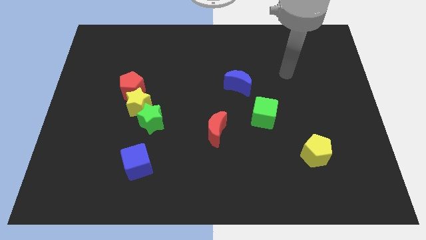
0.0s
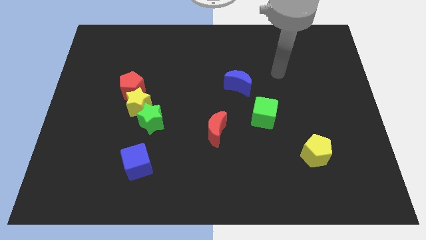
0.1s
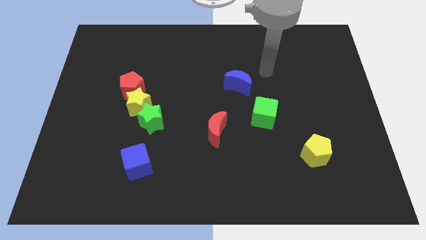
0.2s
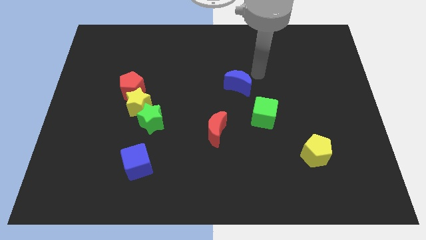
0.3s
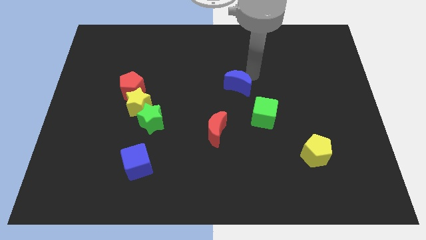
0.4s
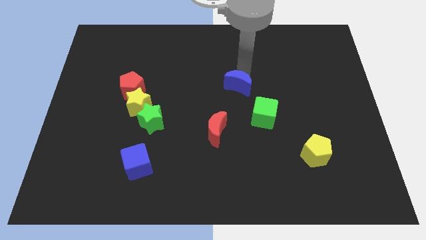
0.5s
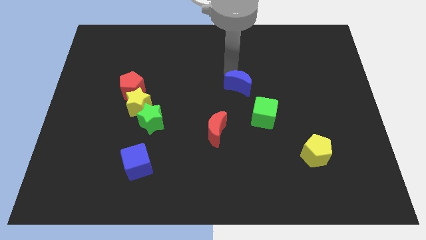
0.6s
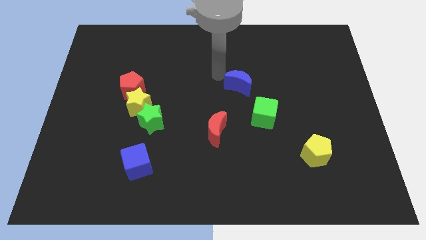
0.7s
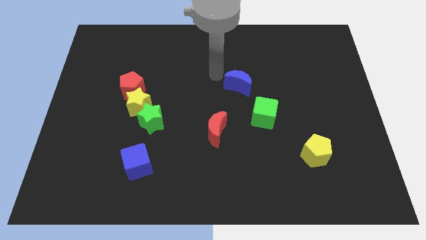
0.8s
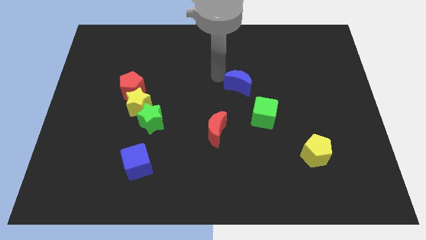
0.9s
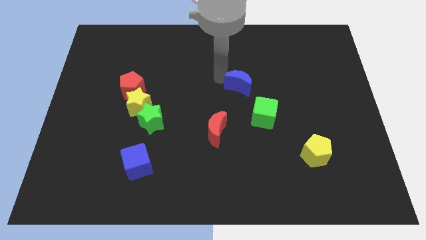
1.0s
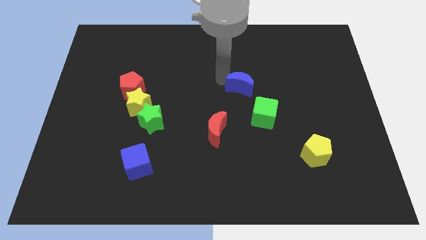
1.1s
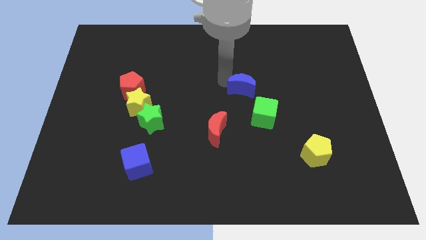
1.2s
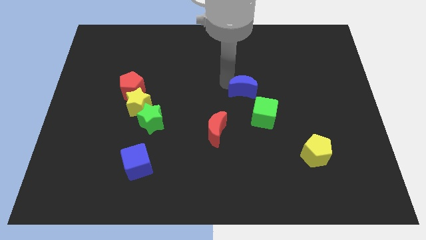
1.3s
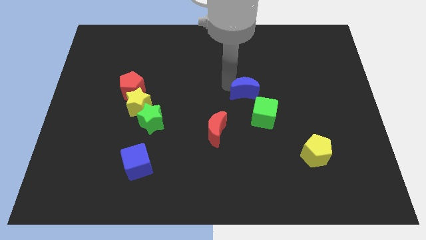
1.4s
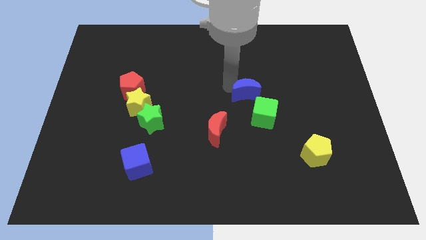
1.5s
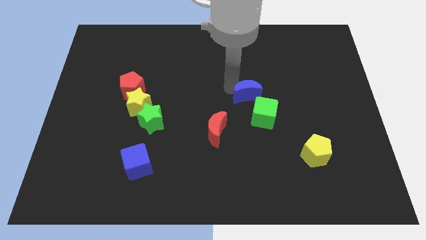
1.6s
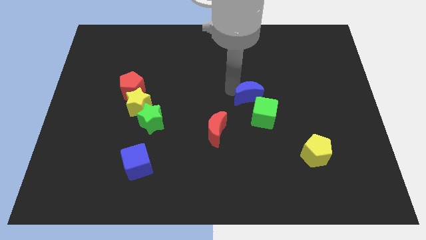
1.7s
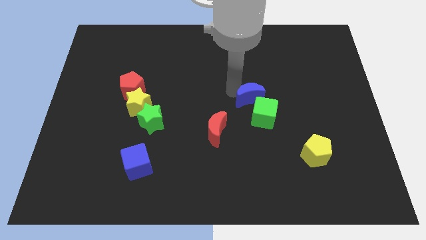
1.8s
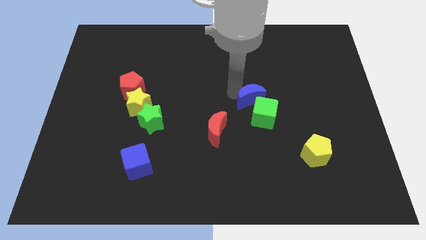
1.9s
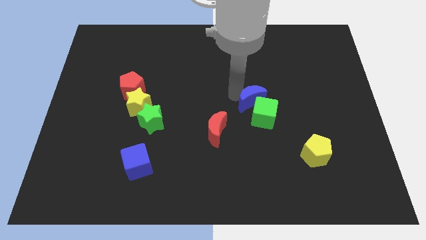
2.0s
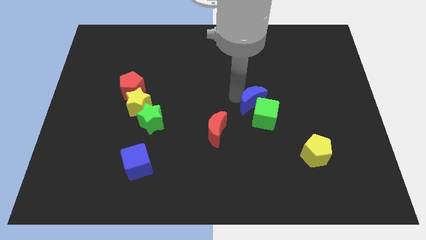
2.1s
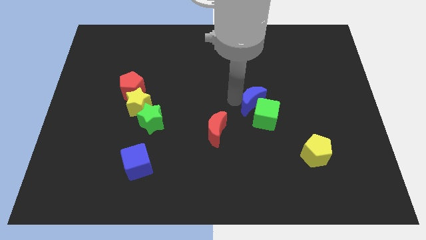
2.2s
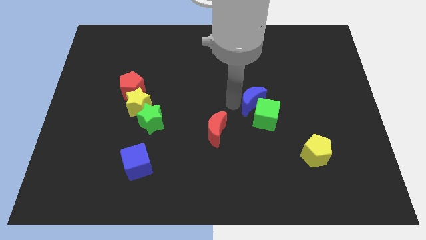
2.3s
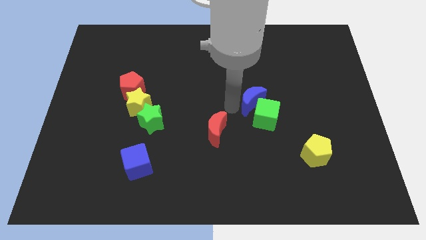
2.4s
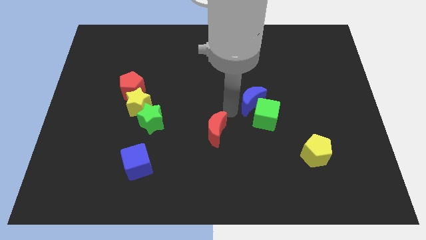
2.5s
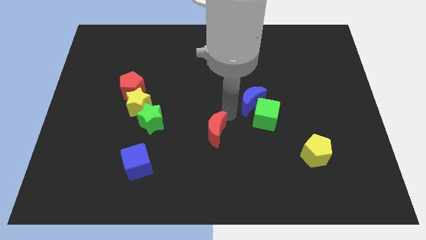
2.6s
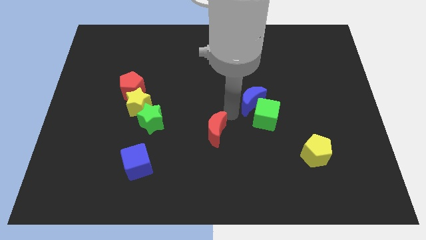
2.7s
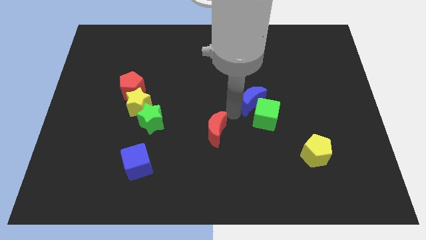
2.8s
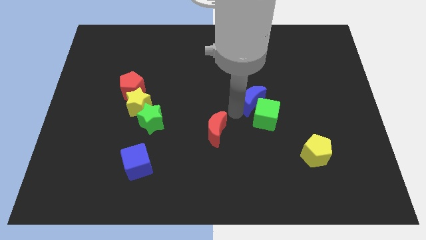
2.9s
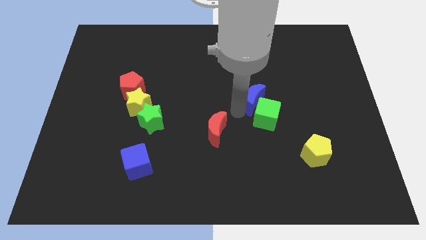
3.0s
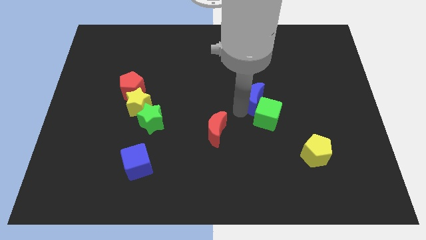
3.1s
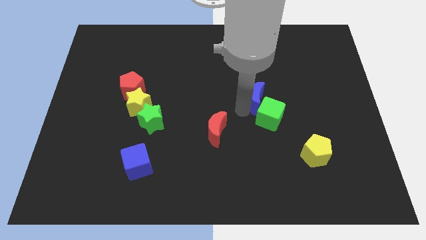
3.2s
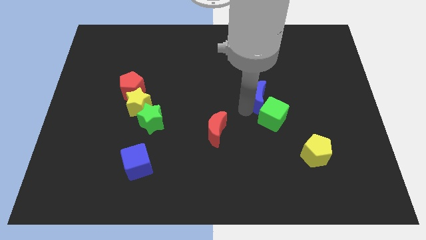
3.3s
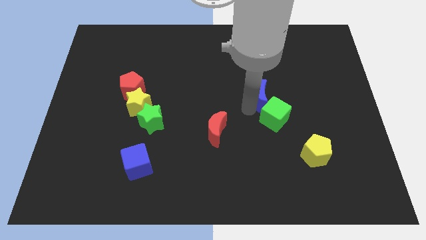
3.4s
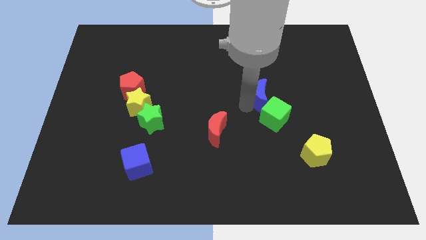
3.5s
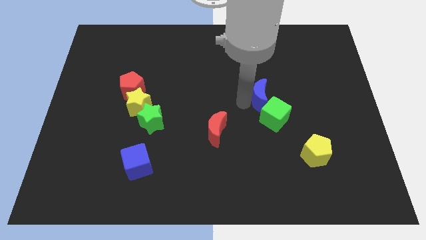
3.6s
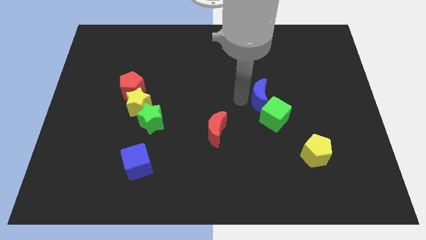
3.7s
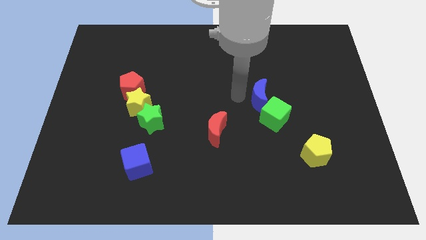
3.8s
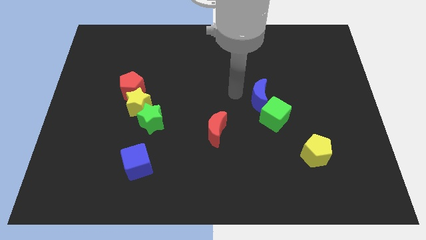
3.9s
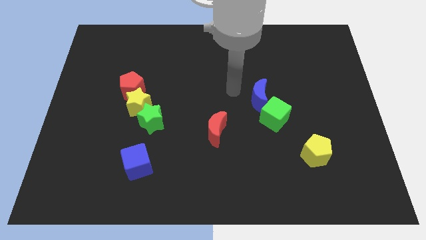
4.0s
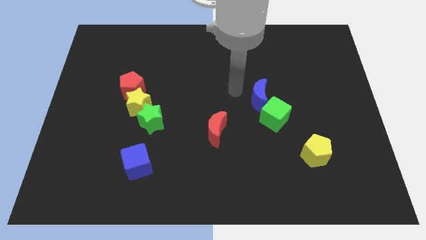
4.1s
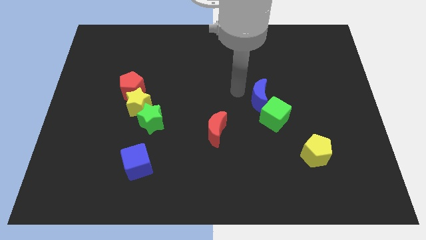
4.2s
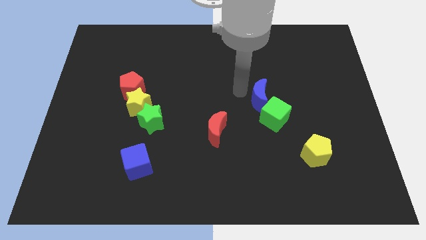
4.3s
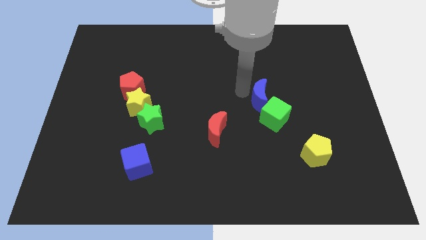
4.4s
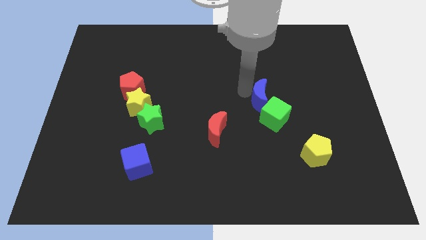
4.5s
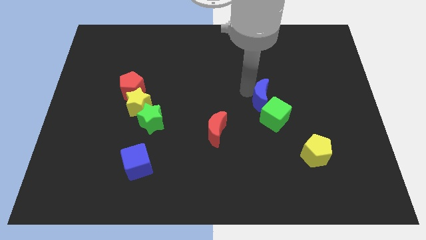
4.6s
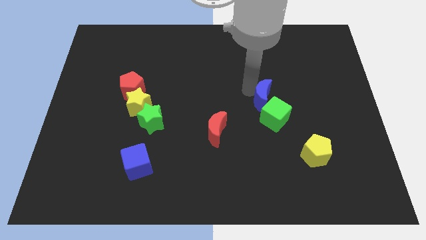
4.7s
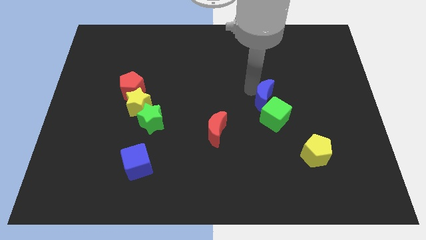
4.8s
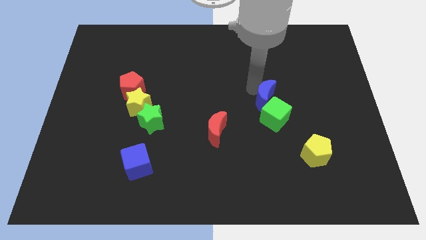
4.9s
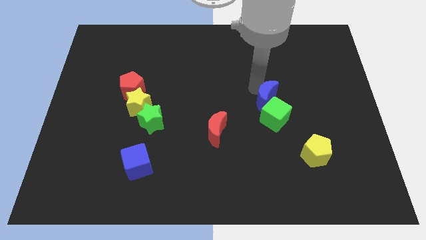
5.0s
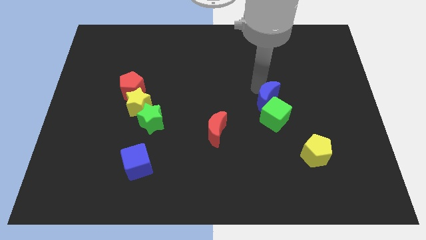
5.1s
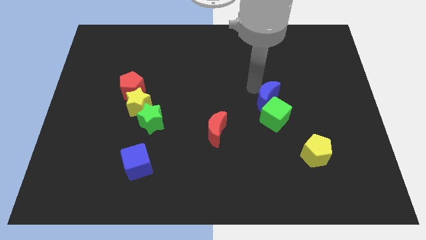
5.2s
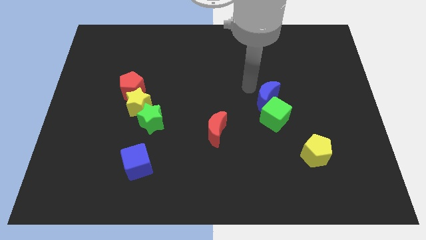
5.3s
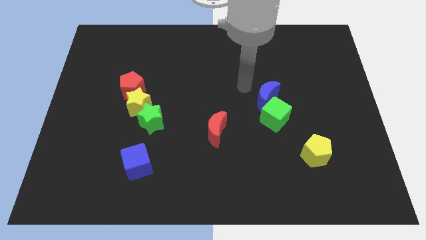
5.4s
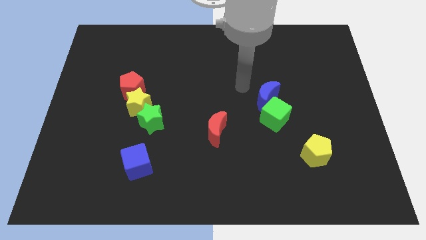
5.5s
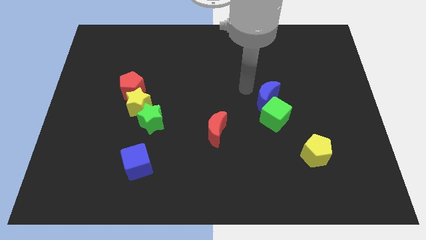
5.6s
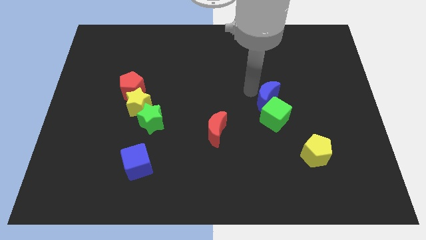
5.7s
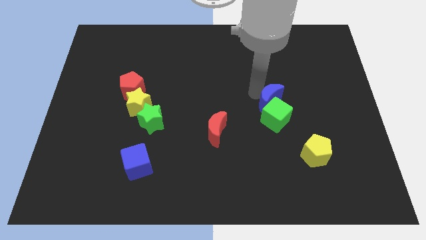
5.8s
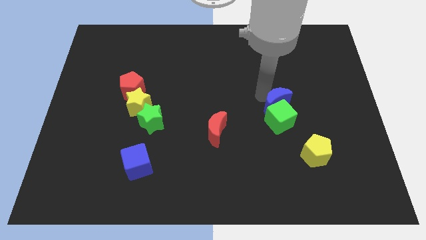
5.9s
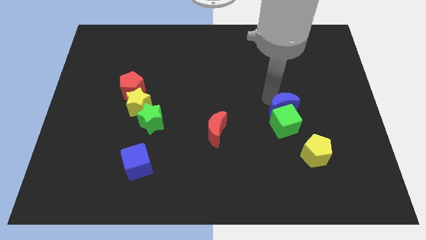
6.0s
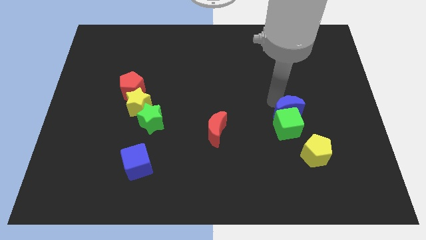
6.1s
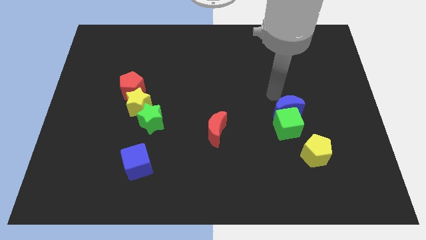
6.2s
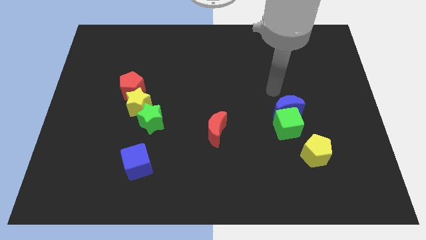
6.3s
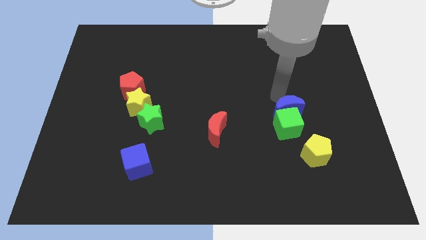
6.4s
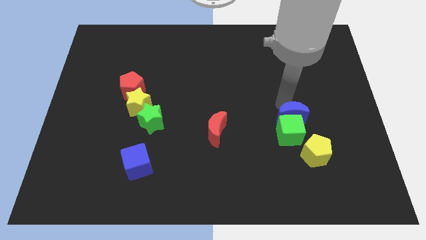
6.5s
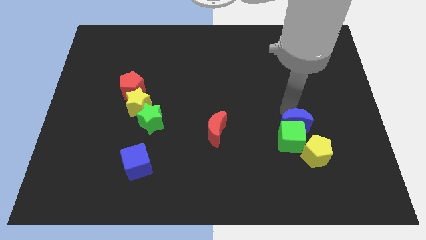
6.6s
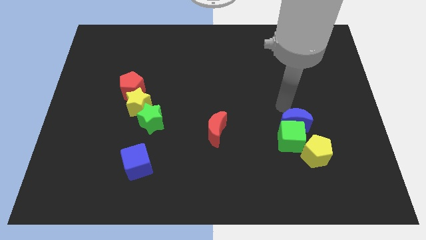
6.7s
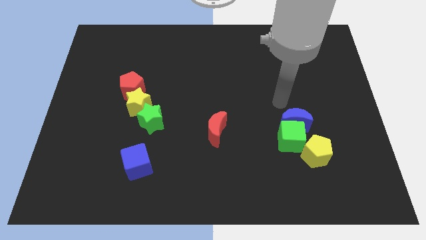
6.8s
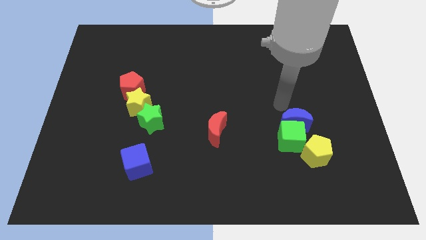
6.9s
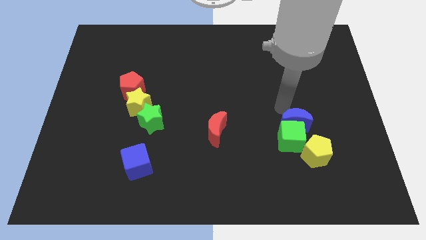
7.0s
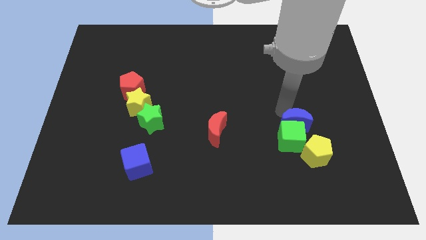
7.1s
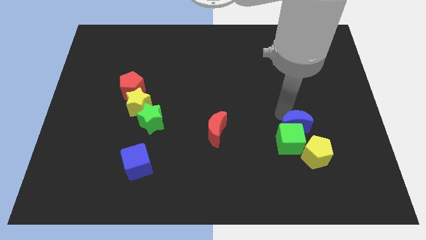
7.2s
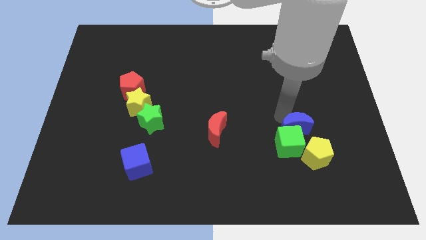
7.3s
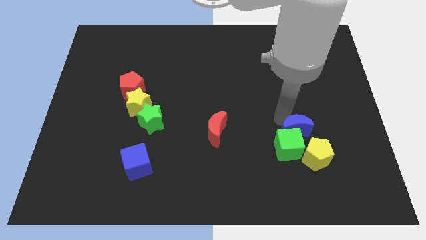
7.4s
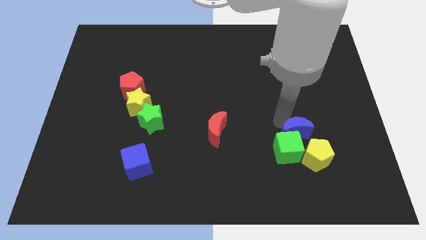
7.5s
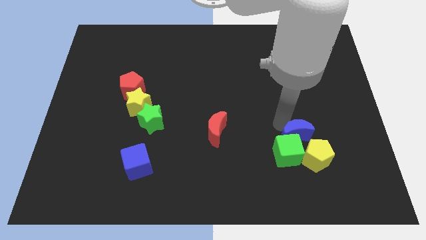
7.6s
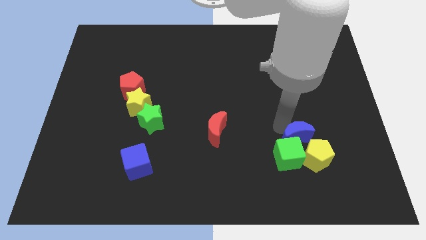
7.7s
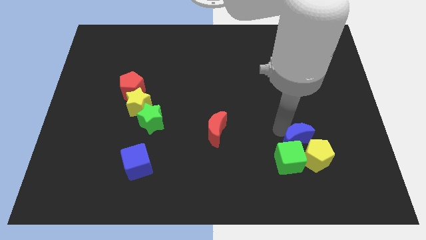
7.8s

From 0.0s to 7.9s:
move the blue moon to the yellow pentagon
